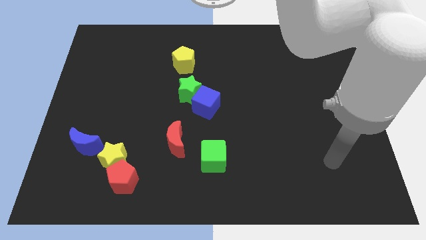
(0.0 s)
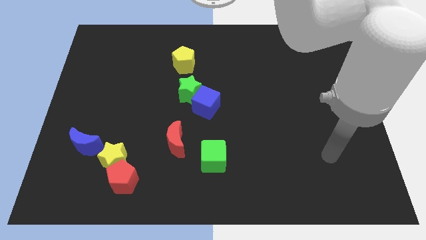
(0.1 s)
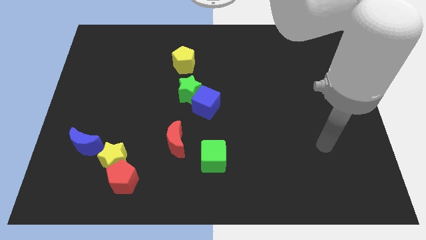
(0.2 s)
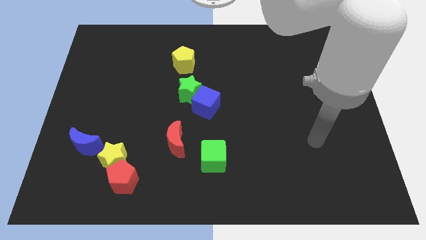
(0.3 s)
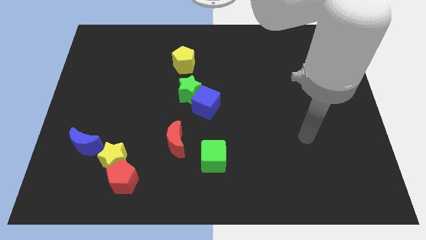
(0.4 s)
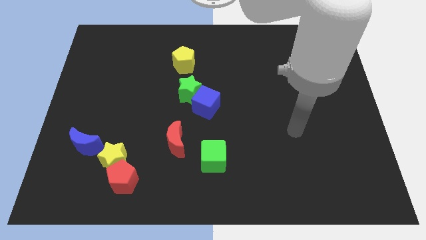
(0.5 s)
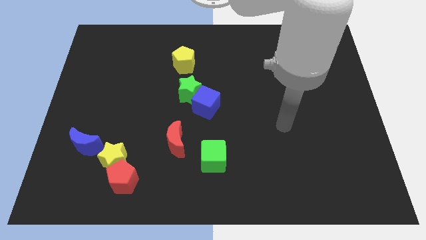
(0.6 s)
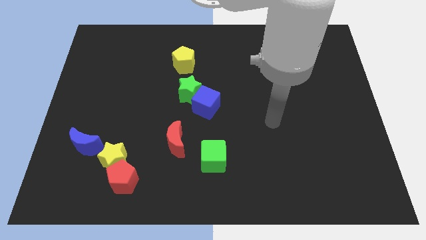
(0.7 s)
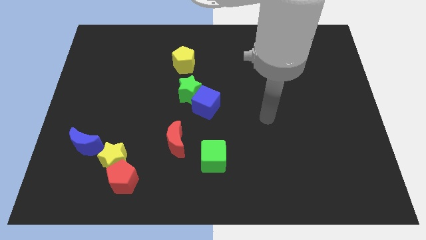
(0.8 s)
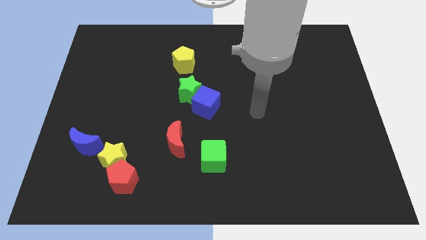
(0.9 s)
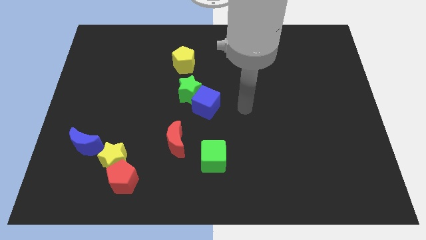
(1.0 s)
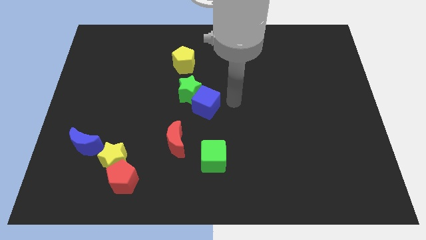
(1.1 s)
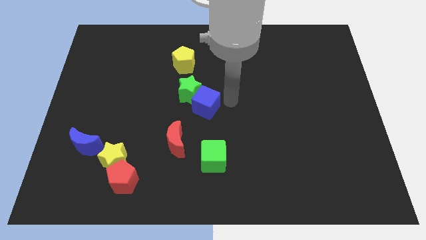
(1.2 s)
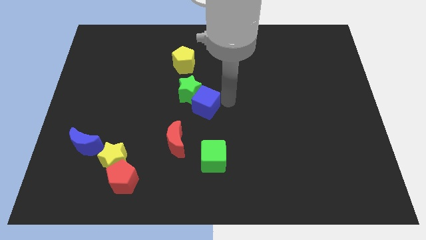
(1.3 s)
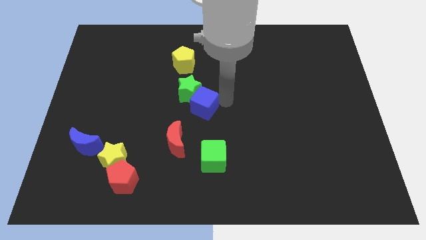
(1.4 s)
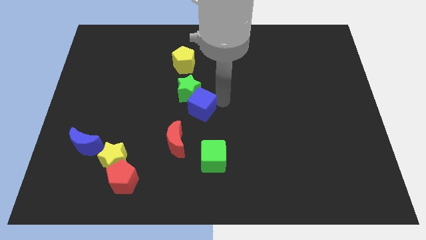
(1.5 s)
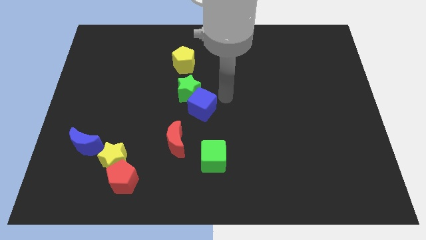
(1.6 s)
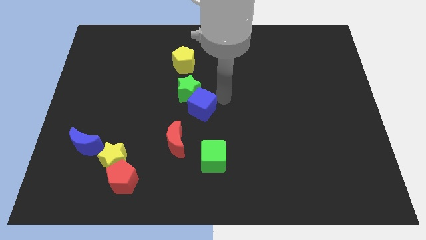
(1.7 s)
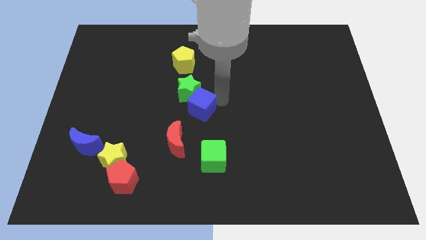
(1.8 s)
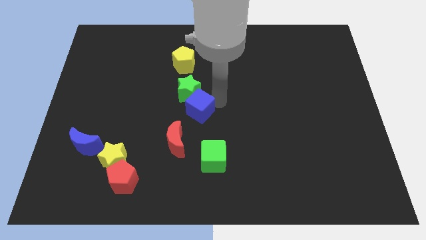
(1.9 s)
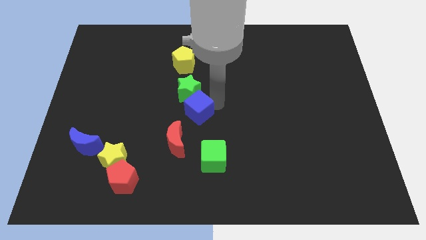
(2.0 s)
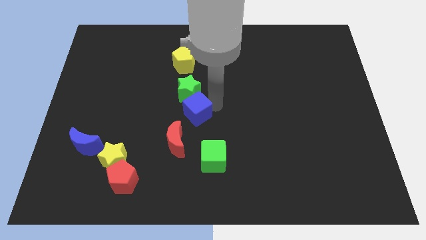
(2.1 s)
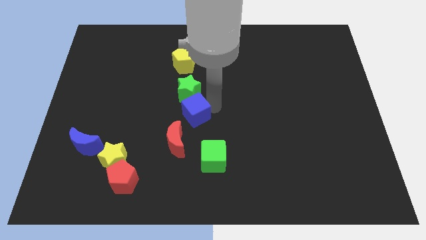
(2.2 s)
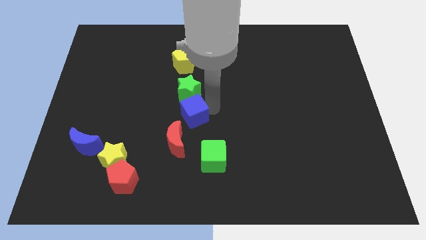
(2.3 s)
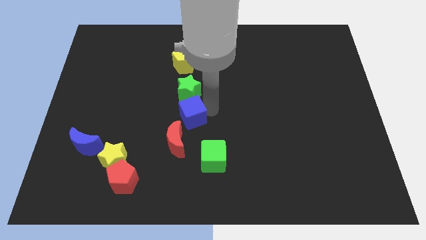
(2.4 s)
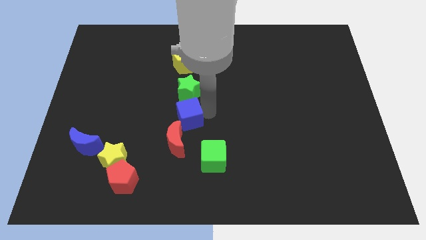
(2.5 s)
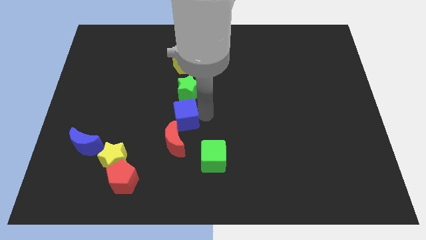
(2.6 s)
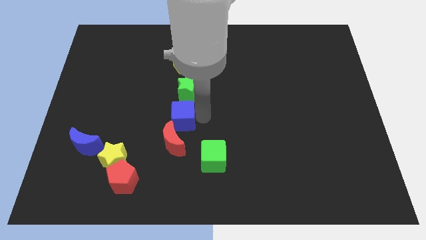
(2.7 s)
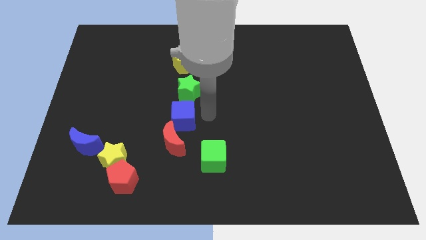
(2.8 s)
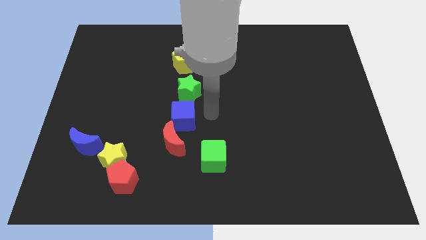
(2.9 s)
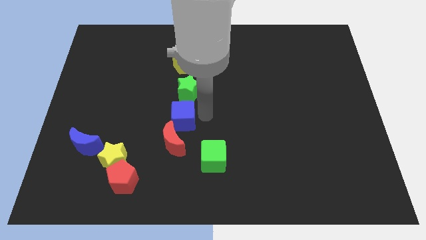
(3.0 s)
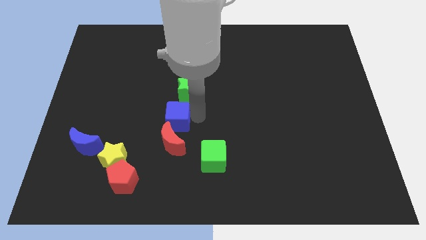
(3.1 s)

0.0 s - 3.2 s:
slightly move the blue cube down and left

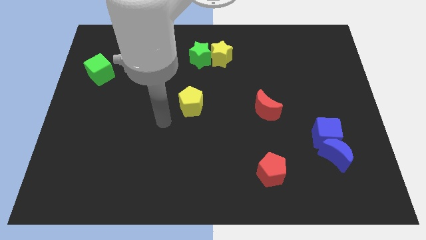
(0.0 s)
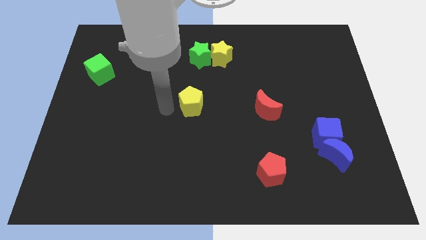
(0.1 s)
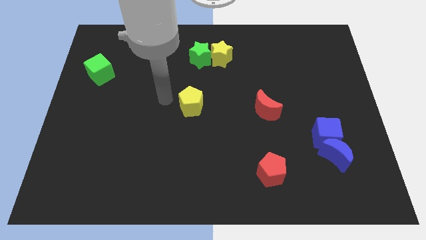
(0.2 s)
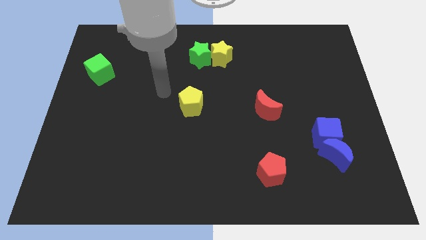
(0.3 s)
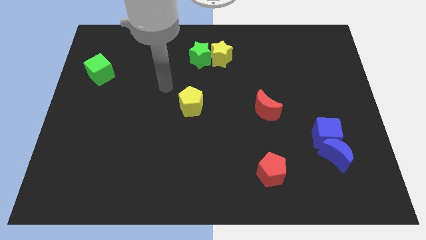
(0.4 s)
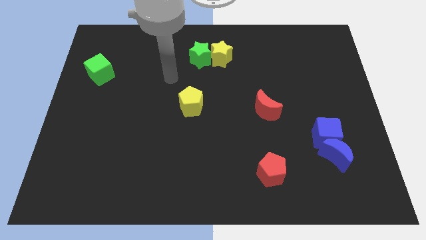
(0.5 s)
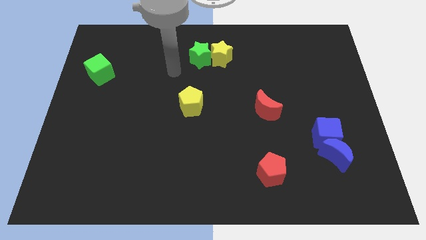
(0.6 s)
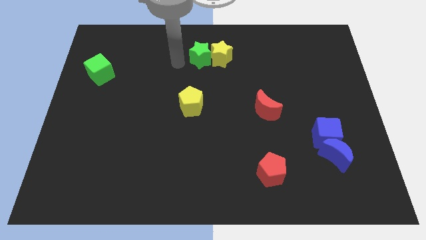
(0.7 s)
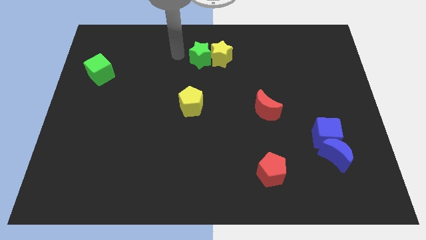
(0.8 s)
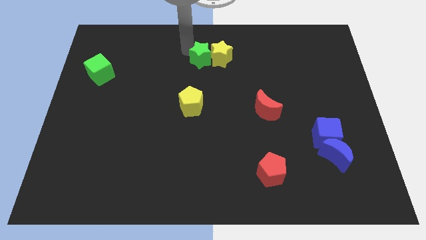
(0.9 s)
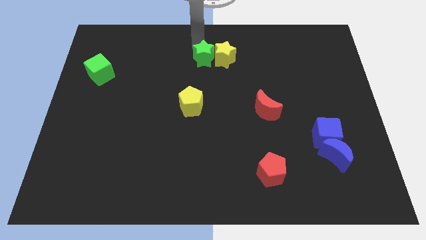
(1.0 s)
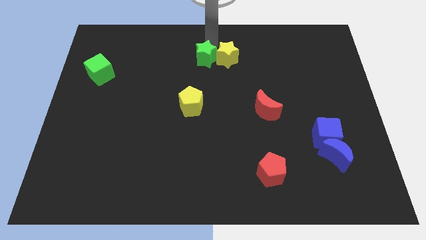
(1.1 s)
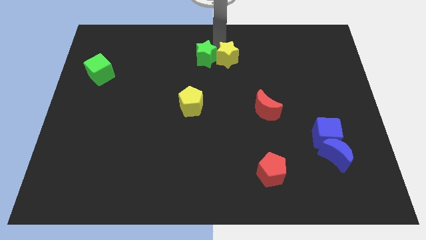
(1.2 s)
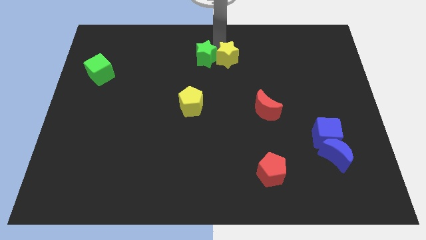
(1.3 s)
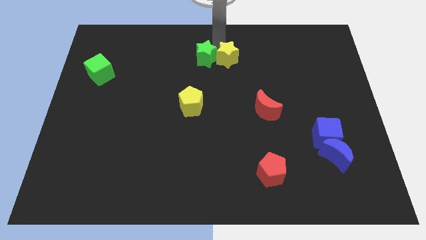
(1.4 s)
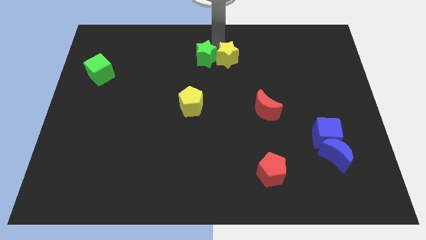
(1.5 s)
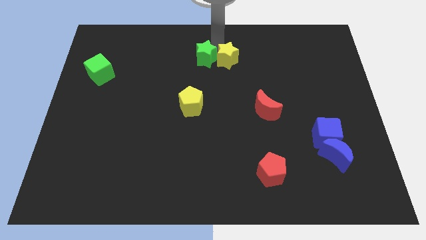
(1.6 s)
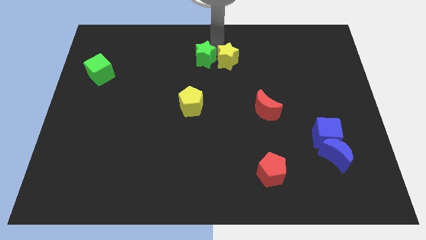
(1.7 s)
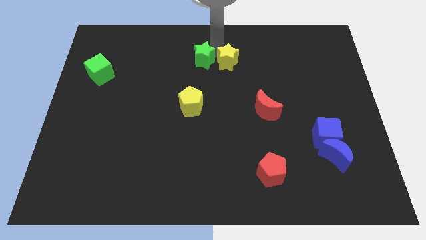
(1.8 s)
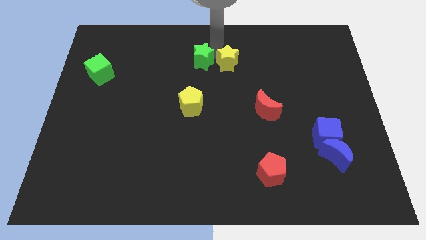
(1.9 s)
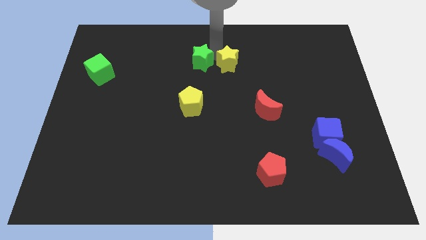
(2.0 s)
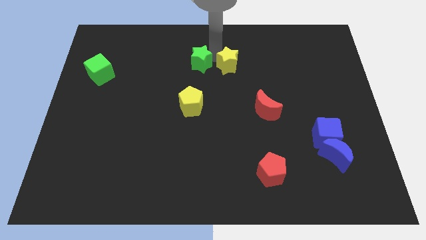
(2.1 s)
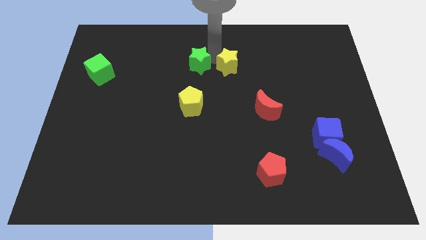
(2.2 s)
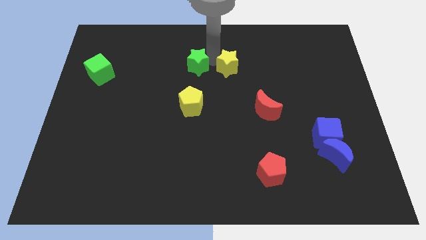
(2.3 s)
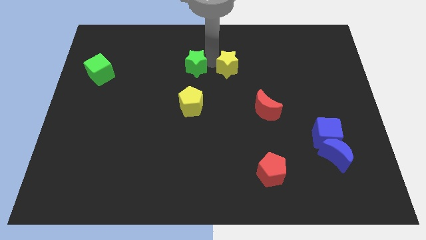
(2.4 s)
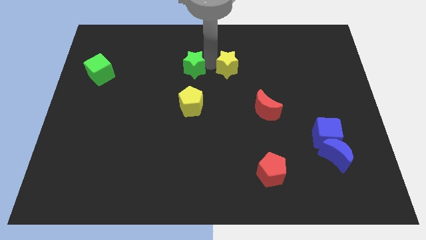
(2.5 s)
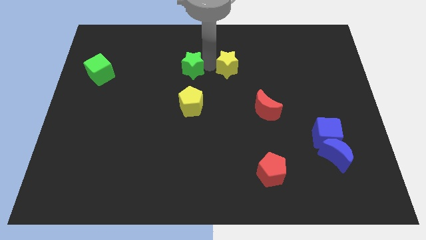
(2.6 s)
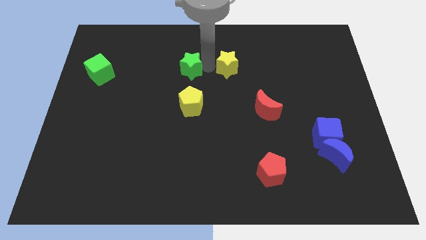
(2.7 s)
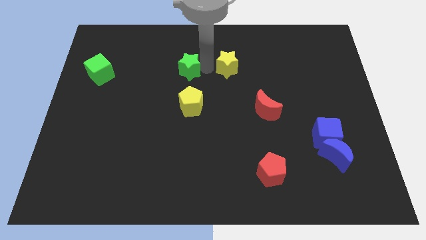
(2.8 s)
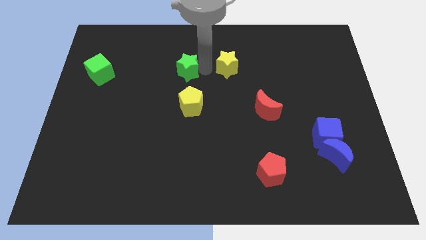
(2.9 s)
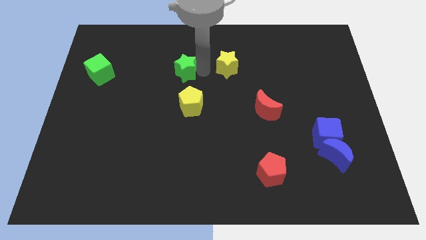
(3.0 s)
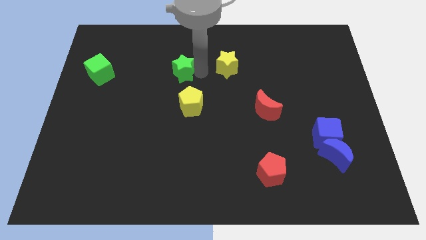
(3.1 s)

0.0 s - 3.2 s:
slide the green star a little downwards and then to the left

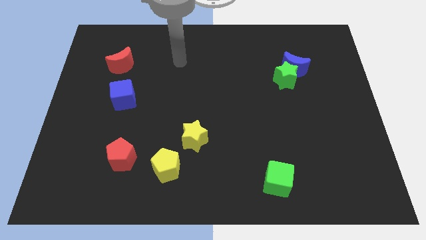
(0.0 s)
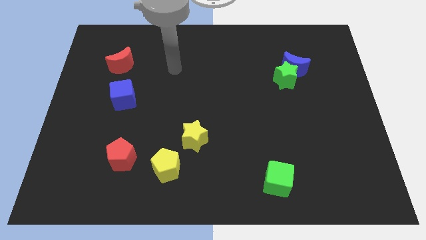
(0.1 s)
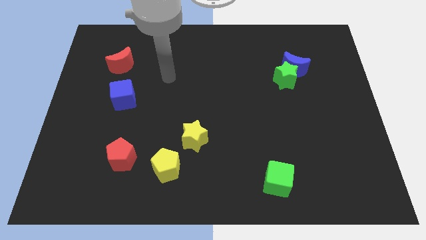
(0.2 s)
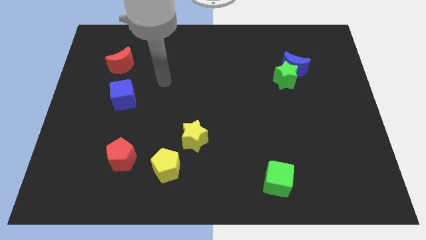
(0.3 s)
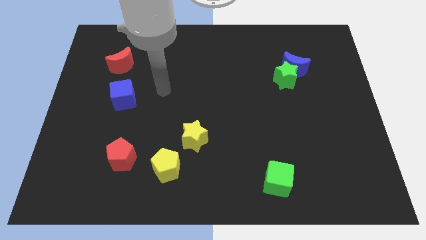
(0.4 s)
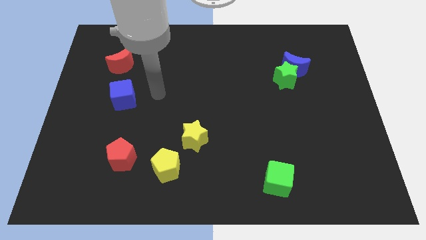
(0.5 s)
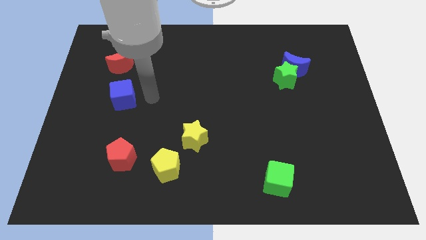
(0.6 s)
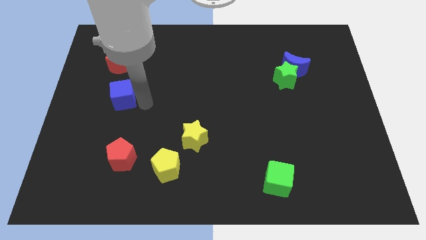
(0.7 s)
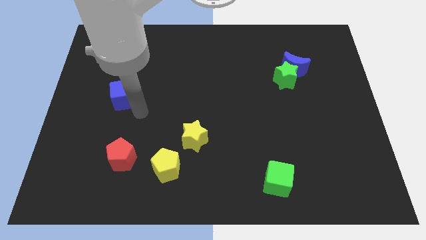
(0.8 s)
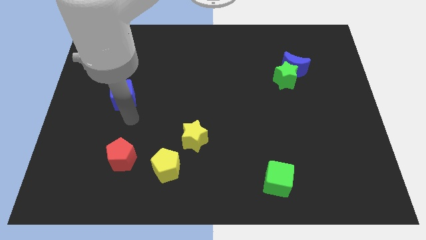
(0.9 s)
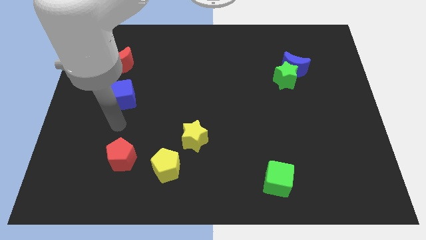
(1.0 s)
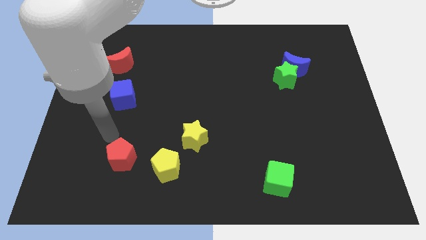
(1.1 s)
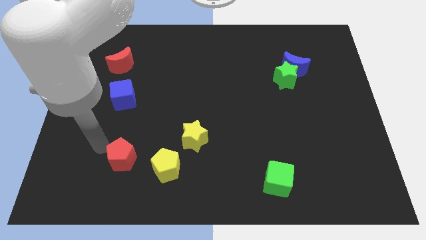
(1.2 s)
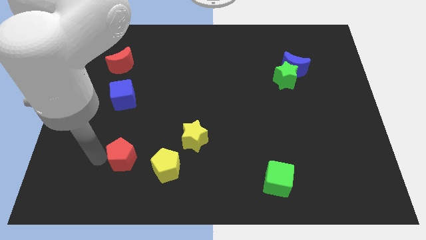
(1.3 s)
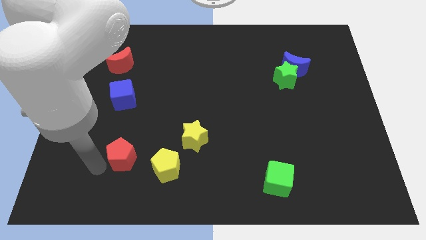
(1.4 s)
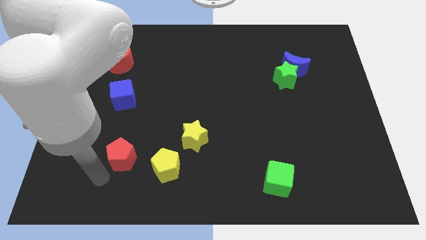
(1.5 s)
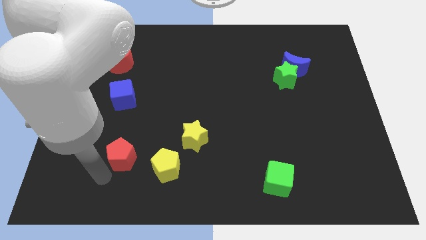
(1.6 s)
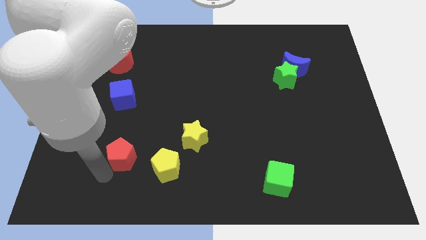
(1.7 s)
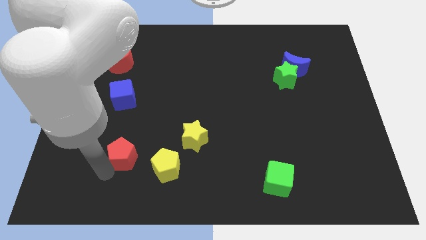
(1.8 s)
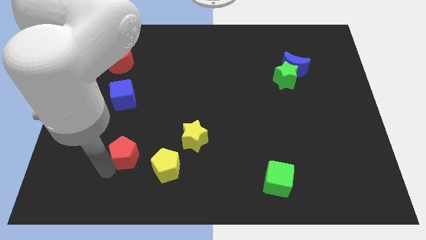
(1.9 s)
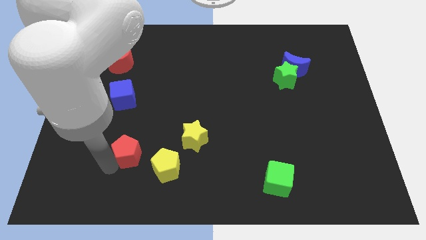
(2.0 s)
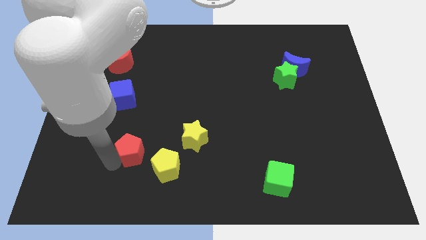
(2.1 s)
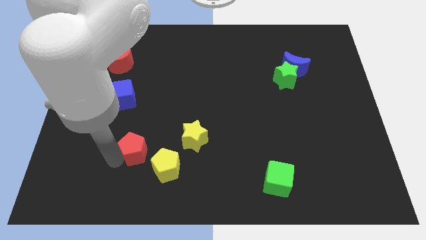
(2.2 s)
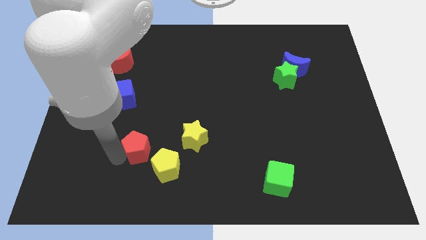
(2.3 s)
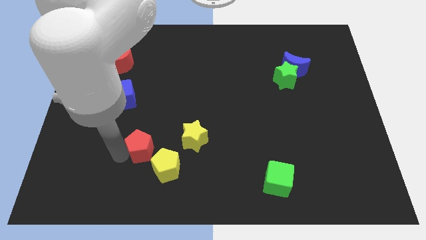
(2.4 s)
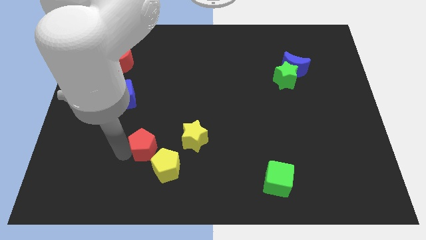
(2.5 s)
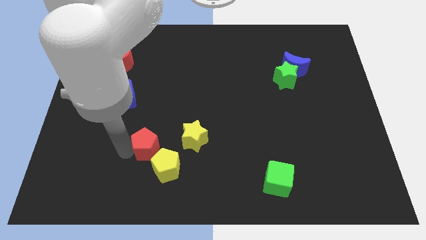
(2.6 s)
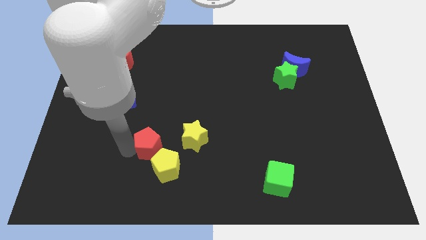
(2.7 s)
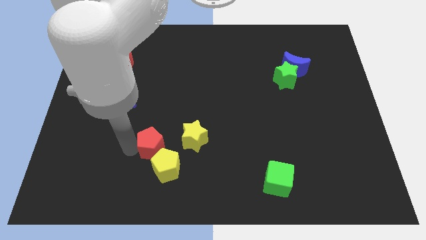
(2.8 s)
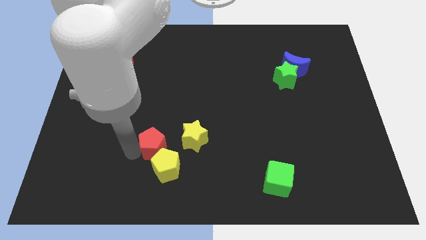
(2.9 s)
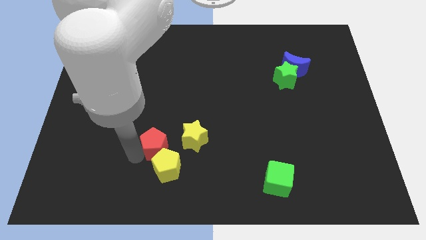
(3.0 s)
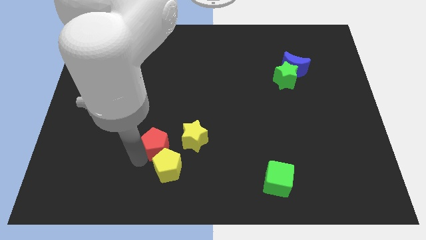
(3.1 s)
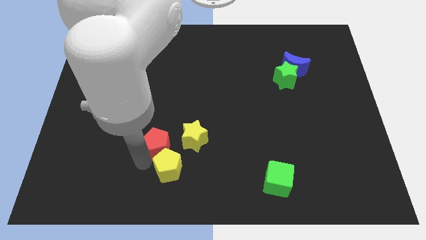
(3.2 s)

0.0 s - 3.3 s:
push the red pentagon a little bit upwards and right diagonally
